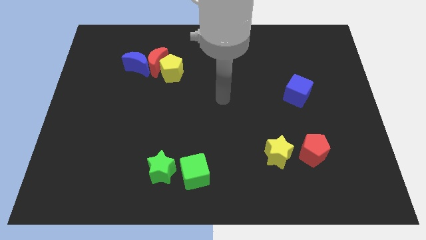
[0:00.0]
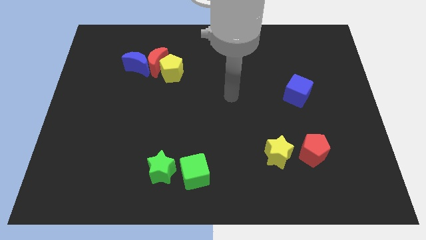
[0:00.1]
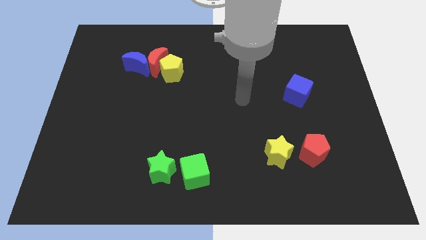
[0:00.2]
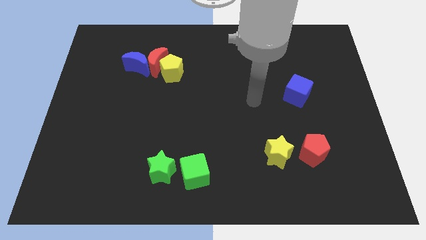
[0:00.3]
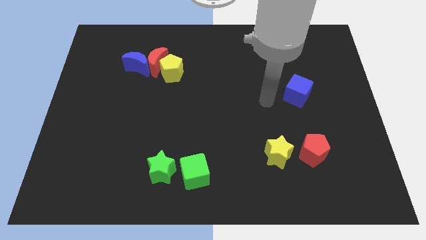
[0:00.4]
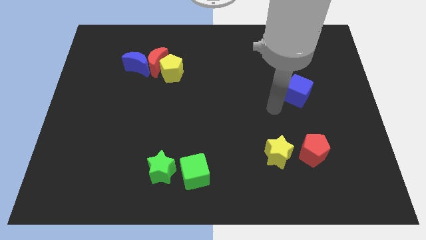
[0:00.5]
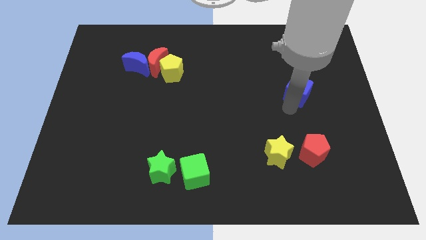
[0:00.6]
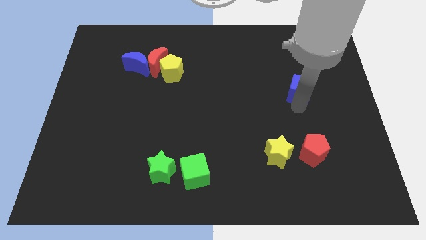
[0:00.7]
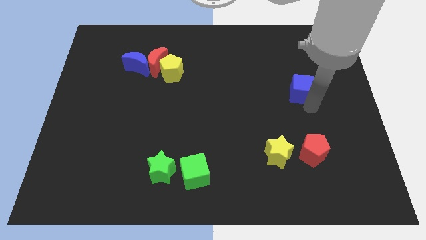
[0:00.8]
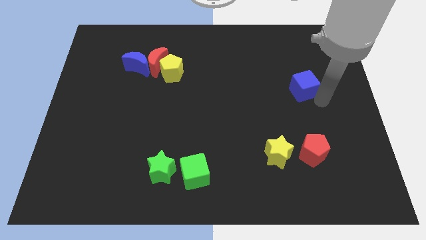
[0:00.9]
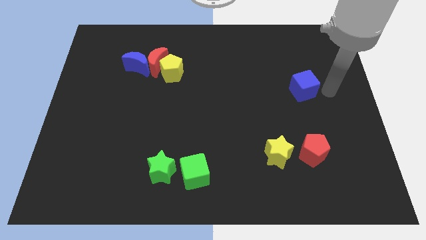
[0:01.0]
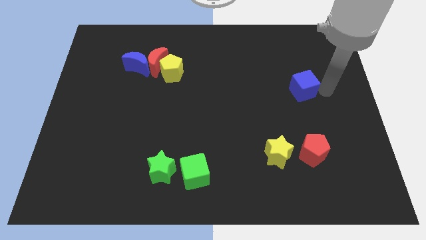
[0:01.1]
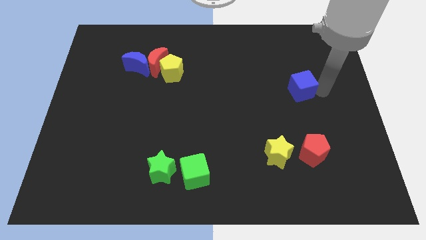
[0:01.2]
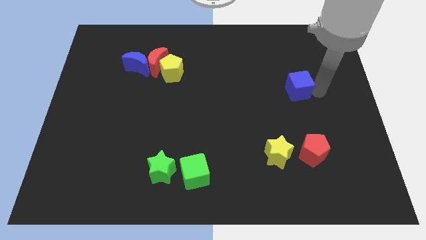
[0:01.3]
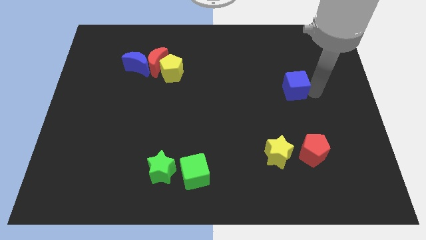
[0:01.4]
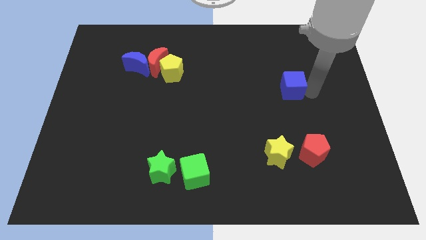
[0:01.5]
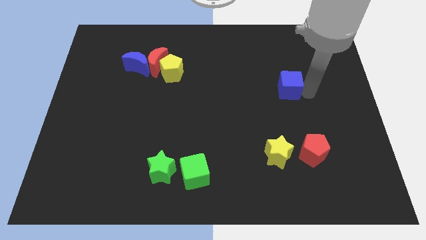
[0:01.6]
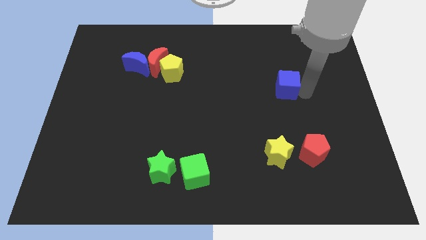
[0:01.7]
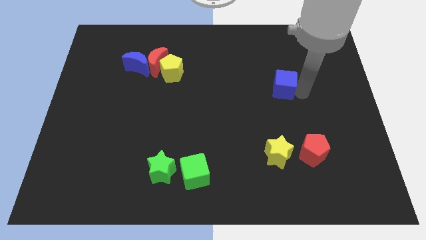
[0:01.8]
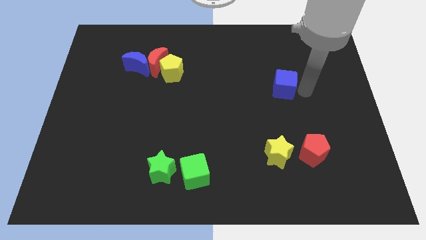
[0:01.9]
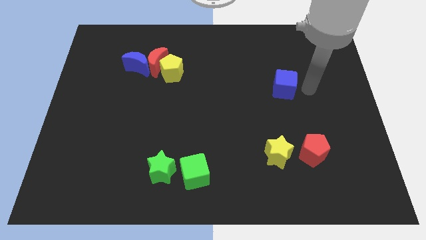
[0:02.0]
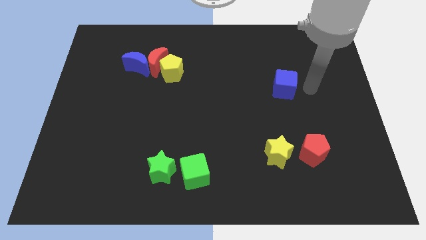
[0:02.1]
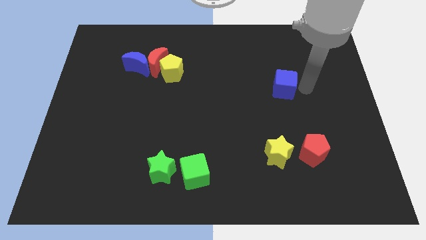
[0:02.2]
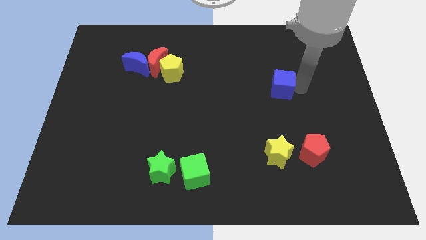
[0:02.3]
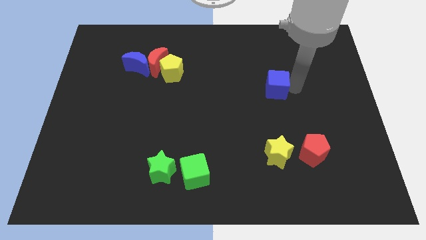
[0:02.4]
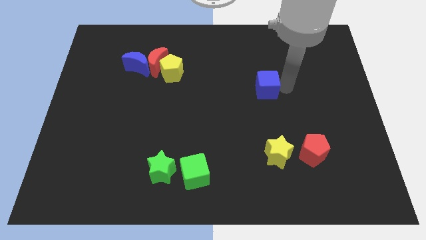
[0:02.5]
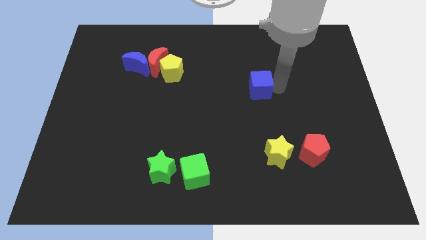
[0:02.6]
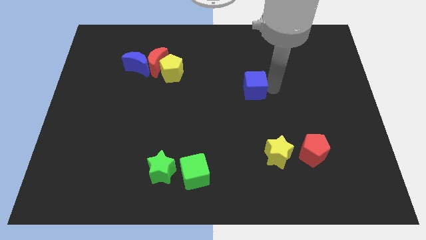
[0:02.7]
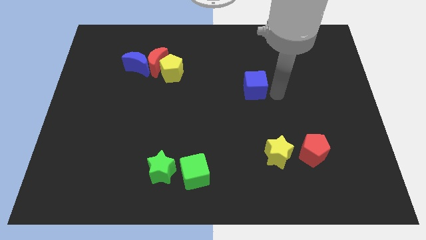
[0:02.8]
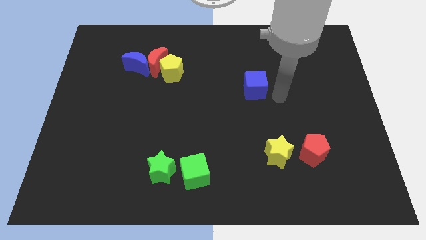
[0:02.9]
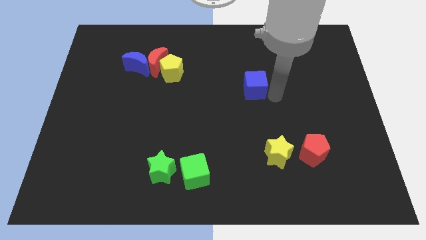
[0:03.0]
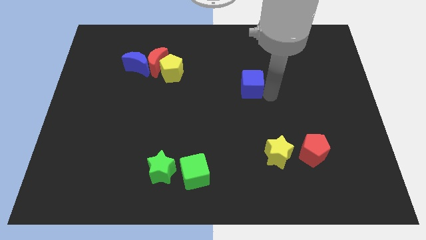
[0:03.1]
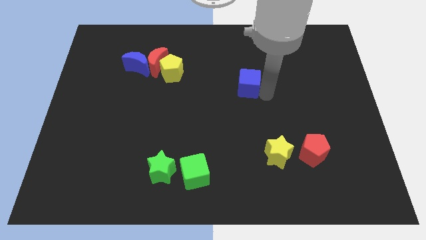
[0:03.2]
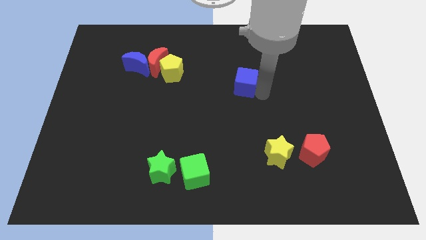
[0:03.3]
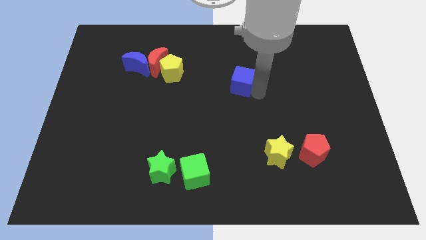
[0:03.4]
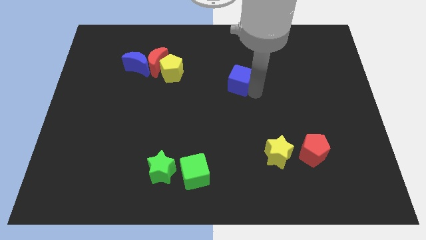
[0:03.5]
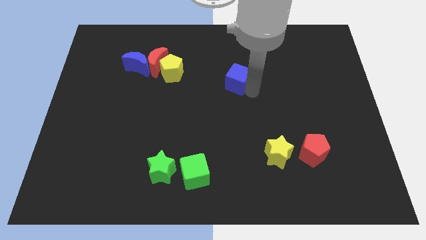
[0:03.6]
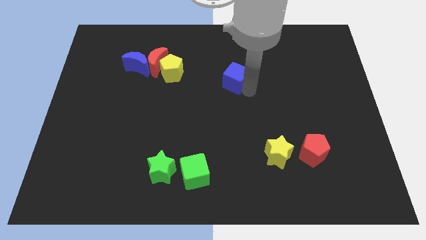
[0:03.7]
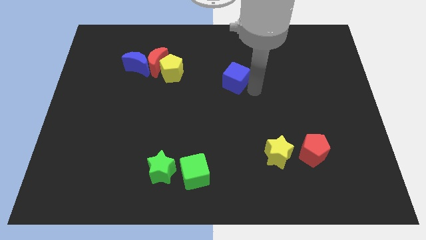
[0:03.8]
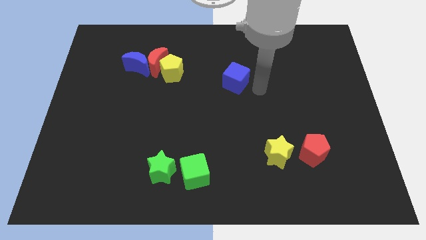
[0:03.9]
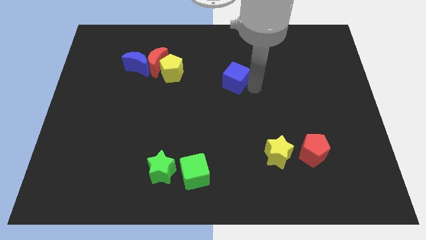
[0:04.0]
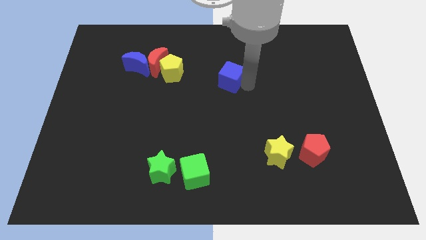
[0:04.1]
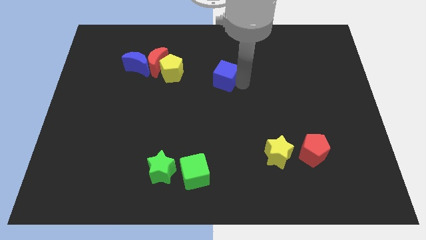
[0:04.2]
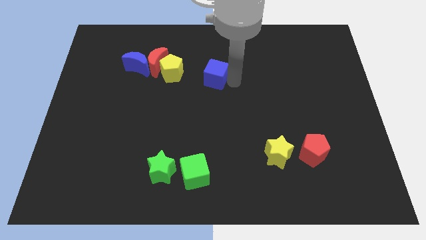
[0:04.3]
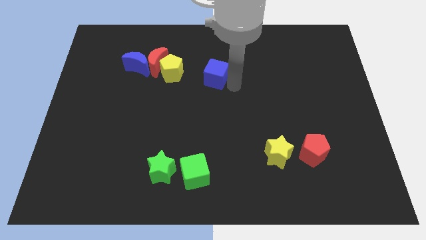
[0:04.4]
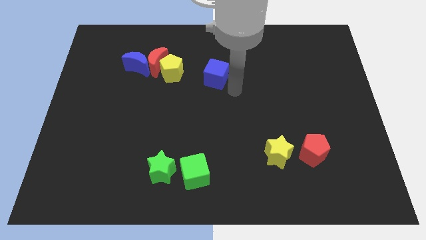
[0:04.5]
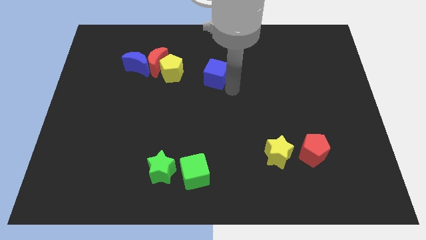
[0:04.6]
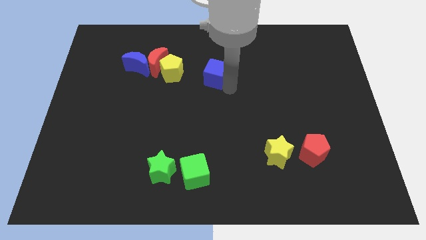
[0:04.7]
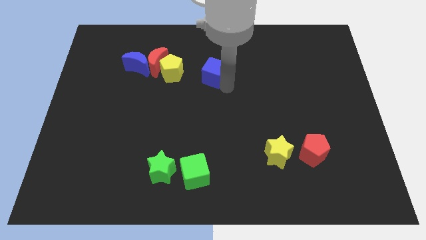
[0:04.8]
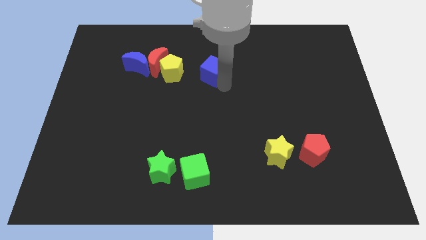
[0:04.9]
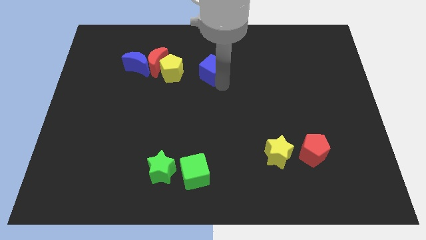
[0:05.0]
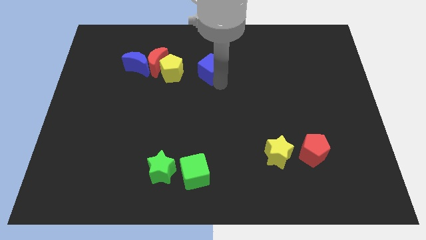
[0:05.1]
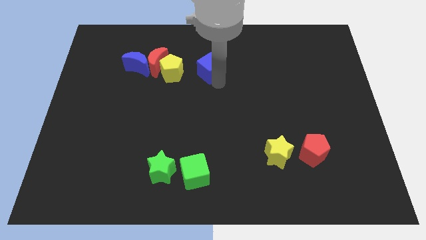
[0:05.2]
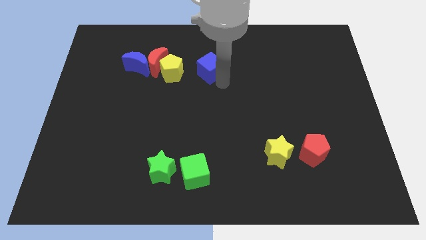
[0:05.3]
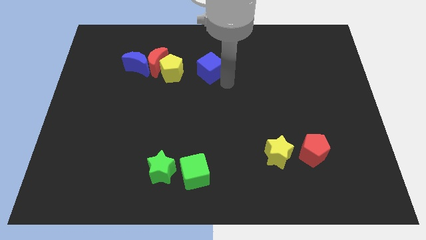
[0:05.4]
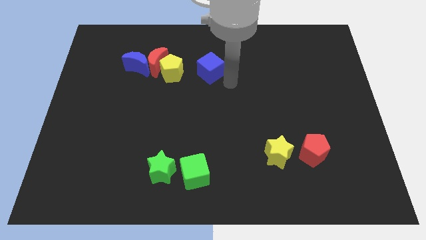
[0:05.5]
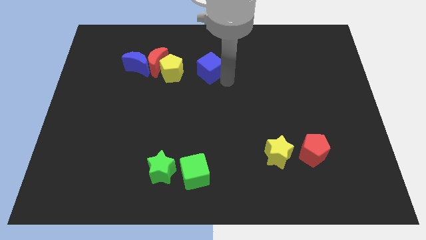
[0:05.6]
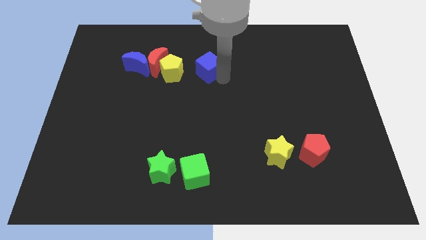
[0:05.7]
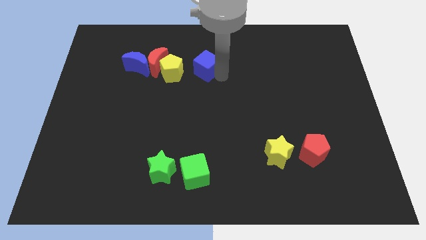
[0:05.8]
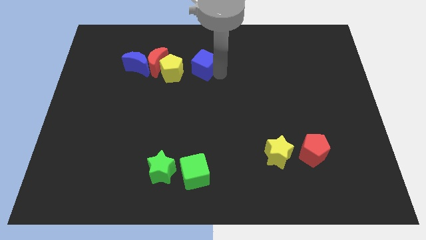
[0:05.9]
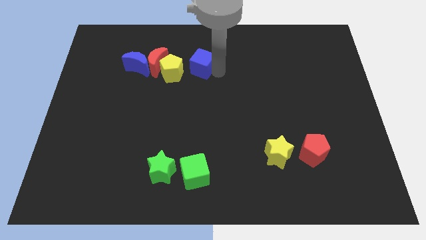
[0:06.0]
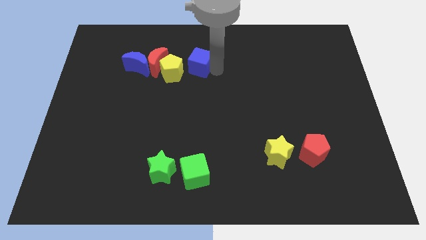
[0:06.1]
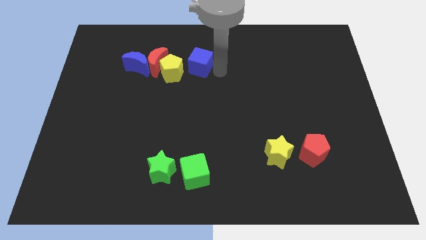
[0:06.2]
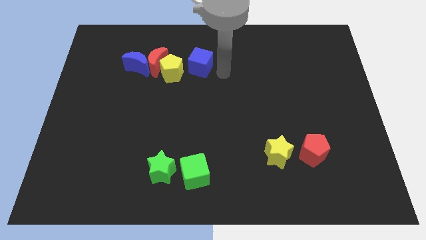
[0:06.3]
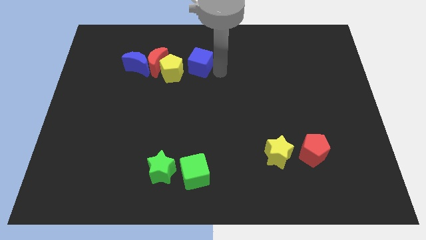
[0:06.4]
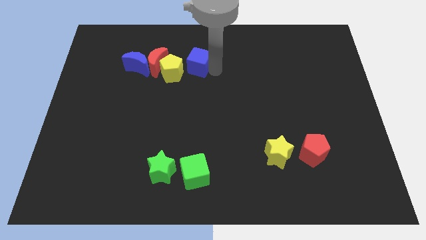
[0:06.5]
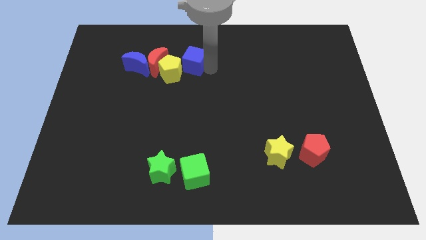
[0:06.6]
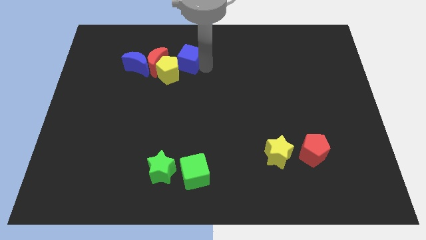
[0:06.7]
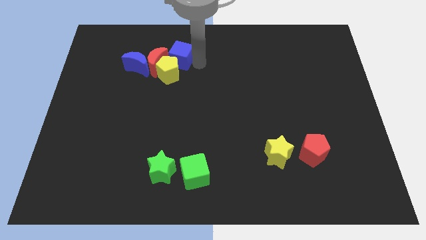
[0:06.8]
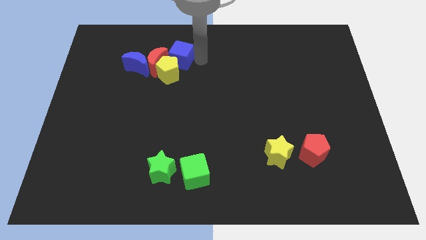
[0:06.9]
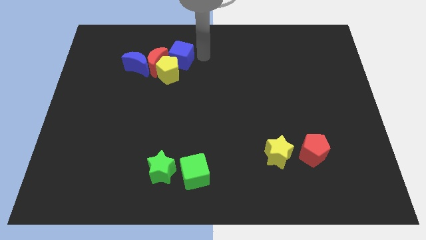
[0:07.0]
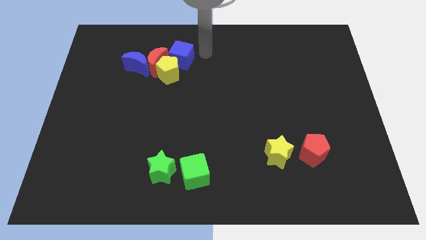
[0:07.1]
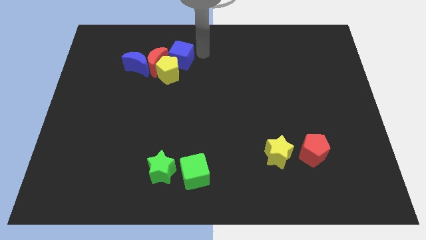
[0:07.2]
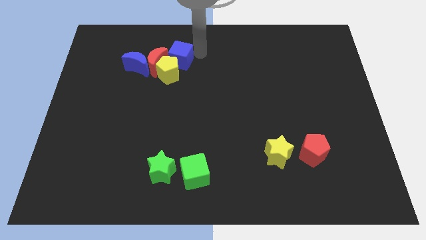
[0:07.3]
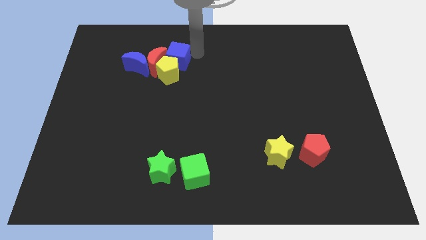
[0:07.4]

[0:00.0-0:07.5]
slide the blue cube to the red moon

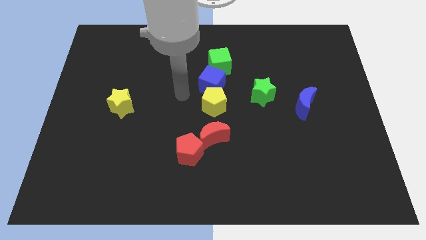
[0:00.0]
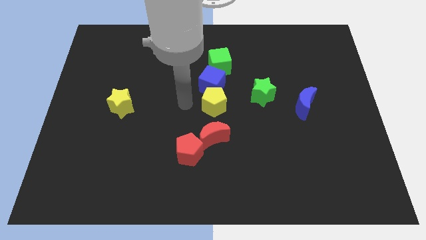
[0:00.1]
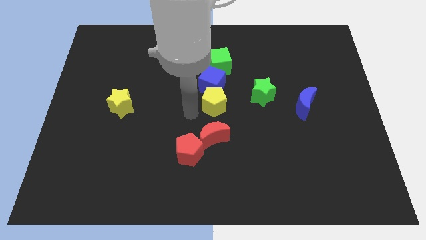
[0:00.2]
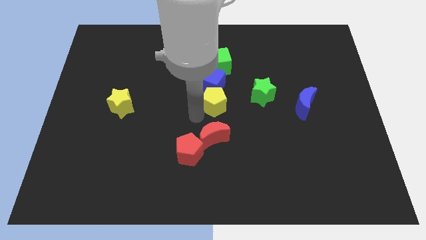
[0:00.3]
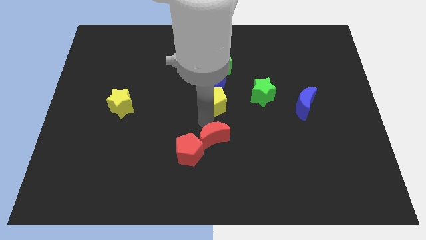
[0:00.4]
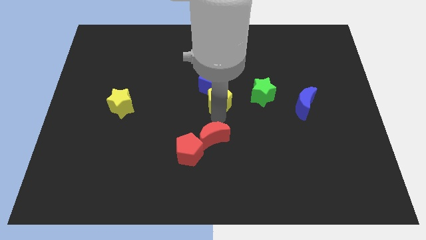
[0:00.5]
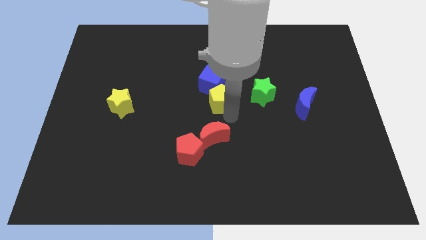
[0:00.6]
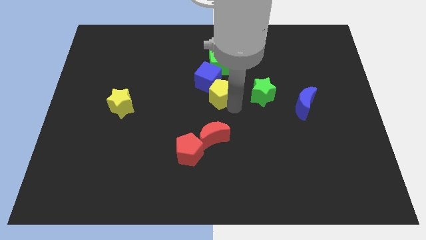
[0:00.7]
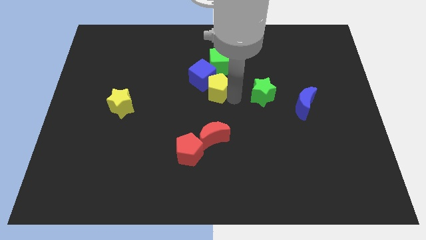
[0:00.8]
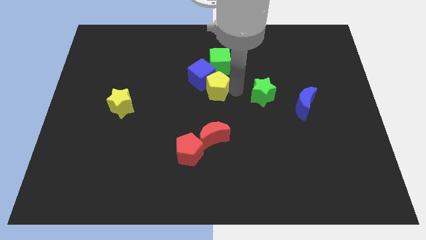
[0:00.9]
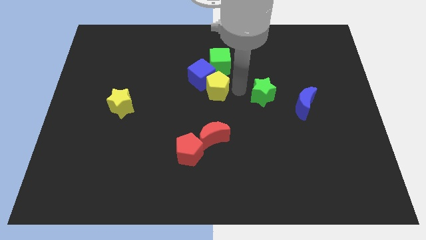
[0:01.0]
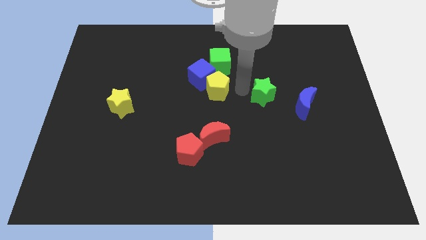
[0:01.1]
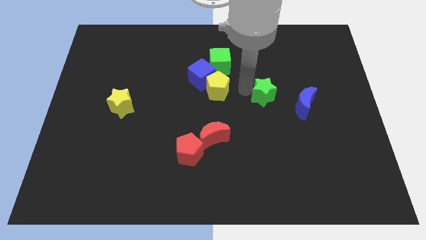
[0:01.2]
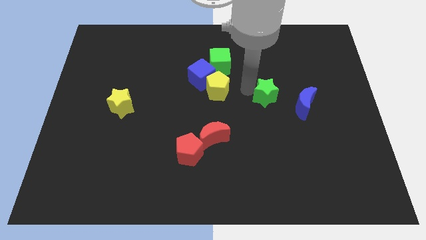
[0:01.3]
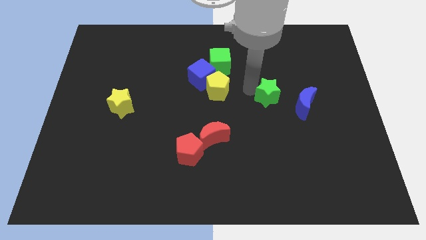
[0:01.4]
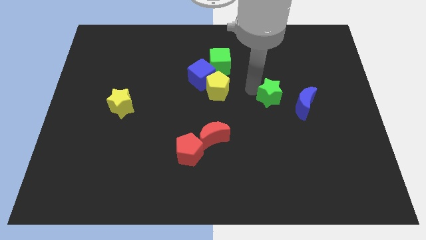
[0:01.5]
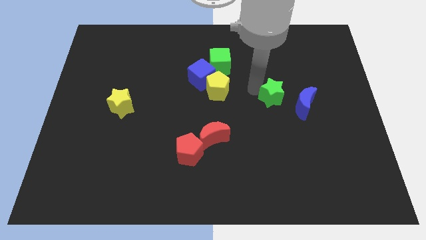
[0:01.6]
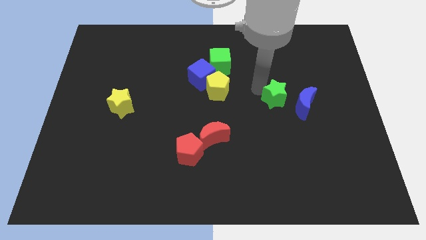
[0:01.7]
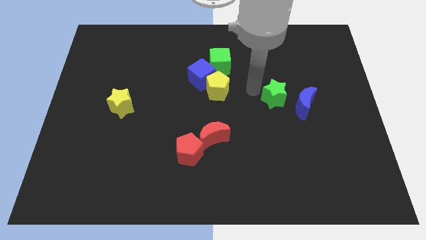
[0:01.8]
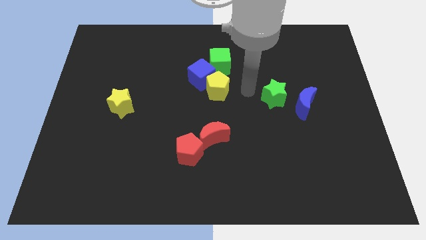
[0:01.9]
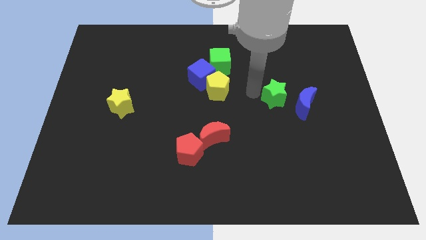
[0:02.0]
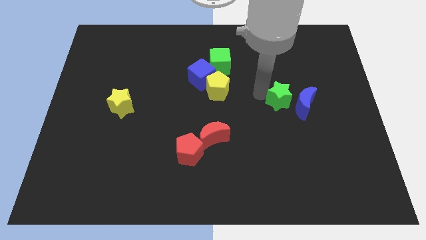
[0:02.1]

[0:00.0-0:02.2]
put the green star next to the blue moon
